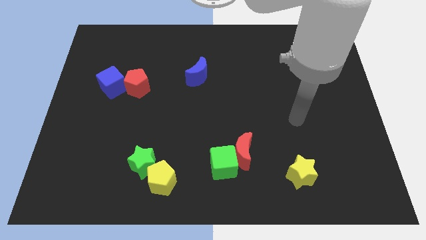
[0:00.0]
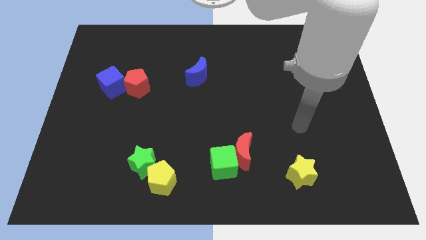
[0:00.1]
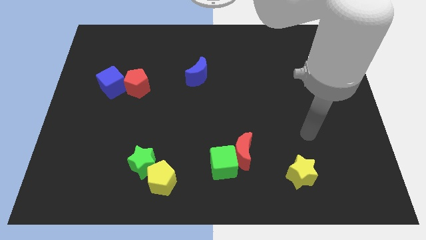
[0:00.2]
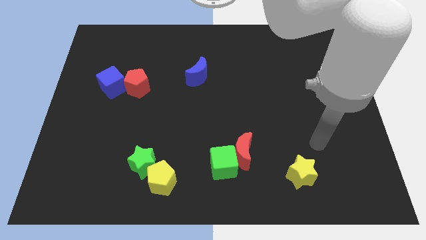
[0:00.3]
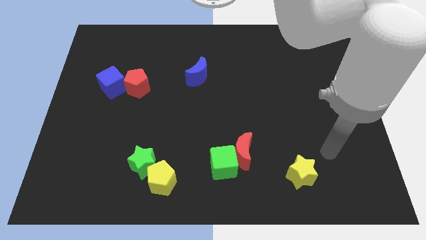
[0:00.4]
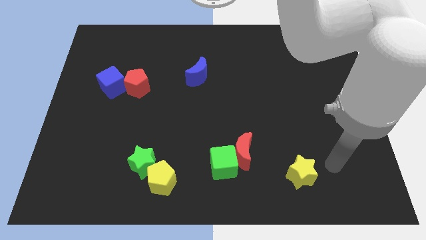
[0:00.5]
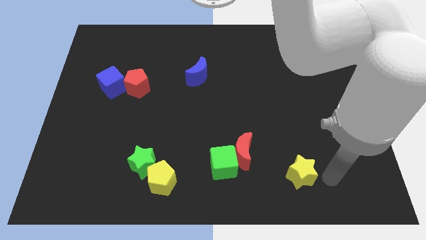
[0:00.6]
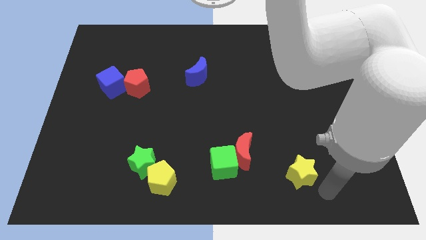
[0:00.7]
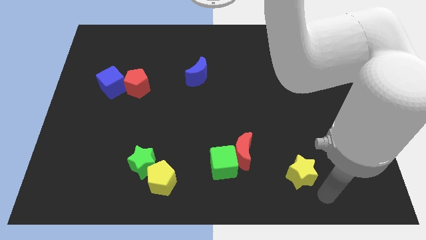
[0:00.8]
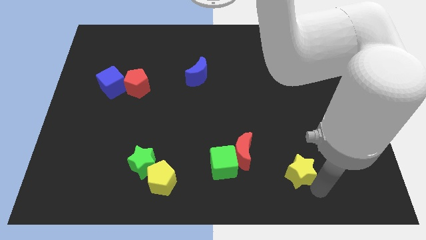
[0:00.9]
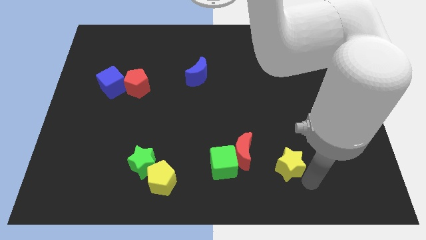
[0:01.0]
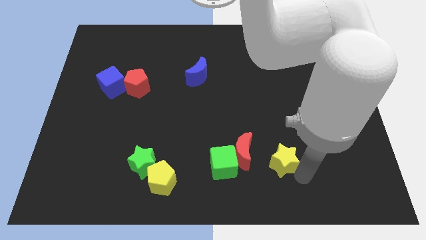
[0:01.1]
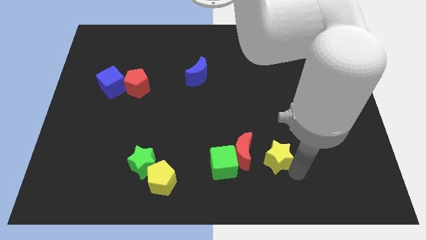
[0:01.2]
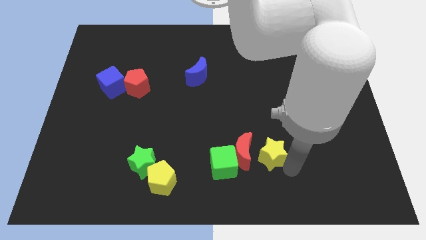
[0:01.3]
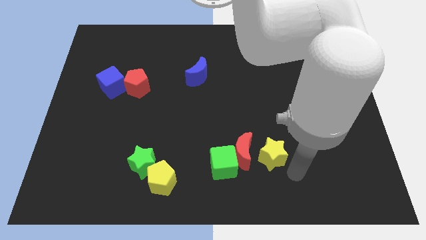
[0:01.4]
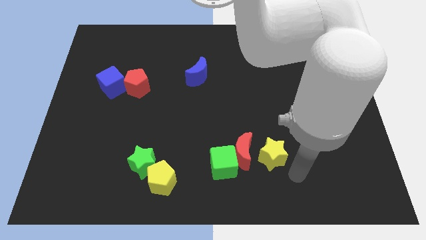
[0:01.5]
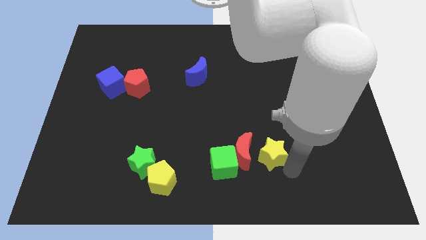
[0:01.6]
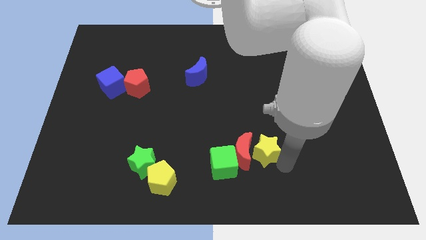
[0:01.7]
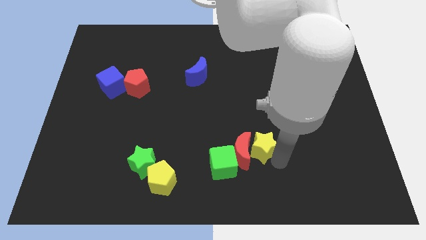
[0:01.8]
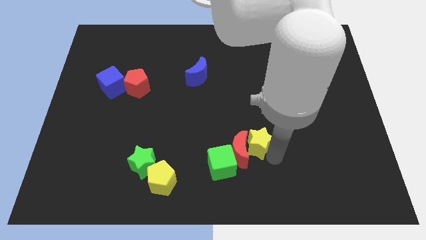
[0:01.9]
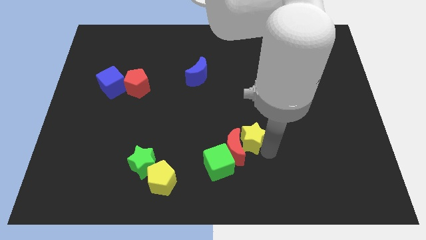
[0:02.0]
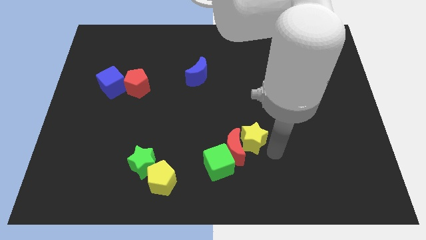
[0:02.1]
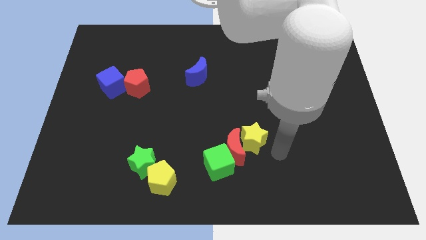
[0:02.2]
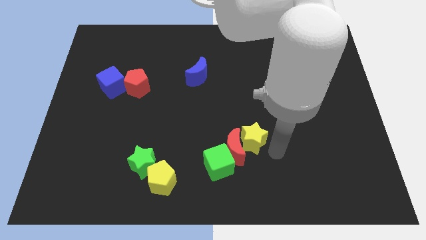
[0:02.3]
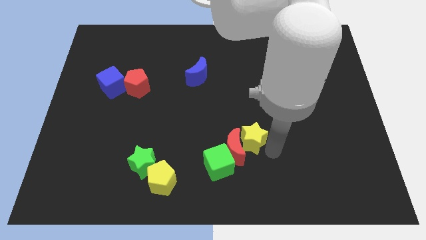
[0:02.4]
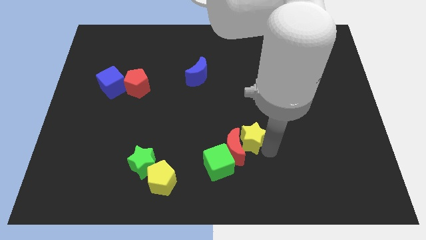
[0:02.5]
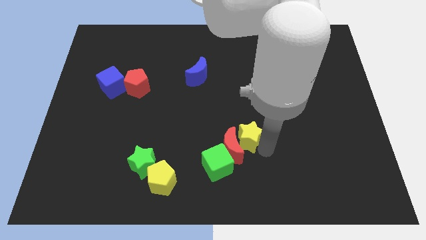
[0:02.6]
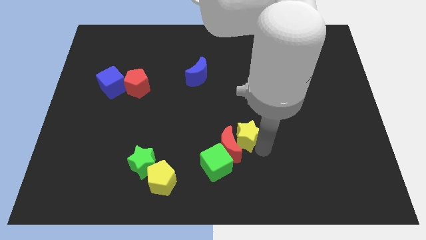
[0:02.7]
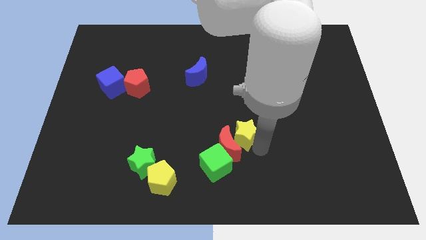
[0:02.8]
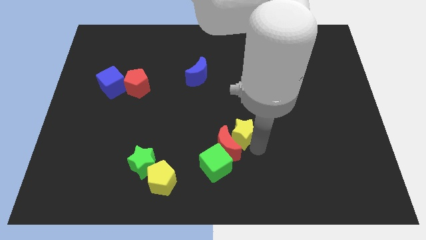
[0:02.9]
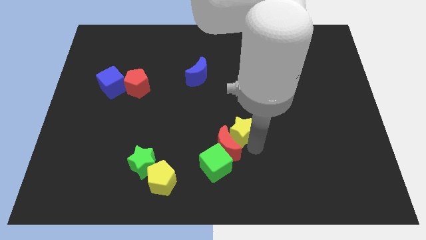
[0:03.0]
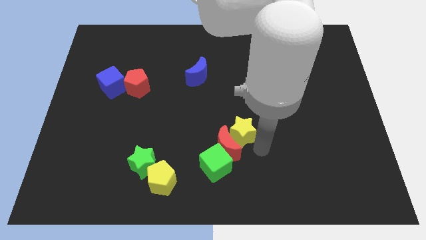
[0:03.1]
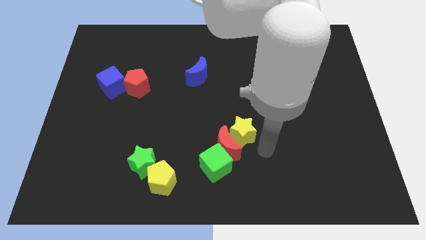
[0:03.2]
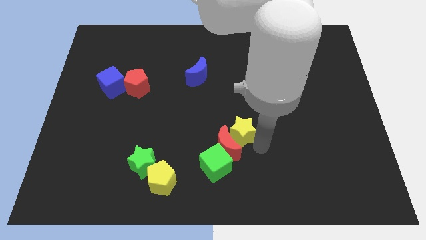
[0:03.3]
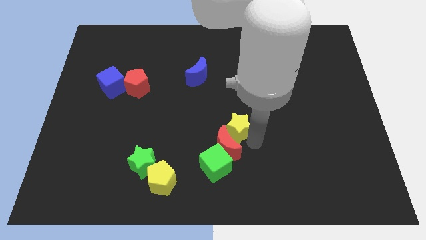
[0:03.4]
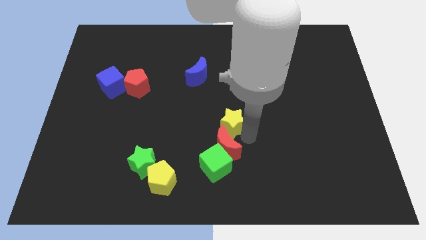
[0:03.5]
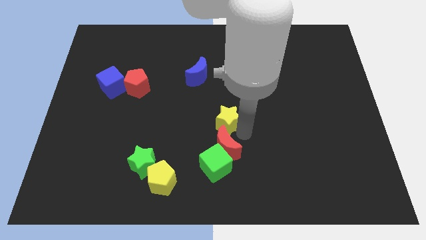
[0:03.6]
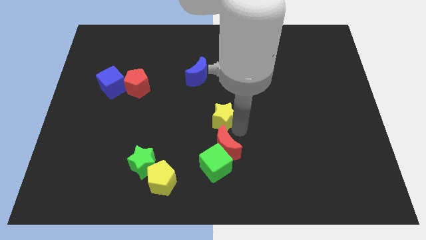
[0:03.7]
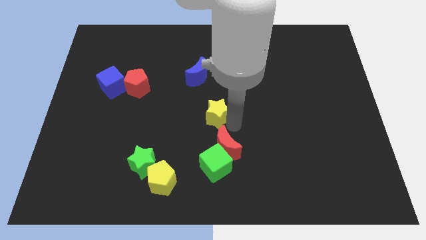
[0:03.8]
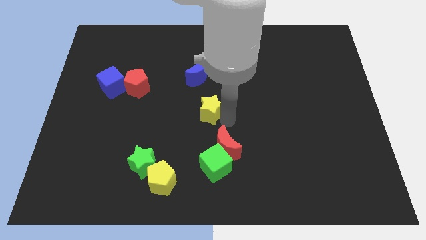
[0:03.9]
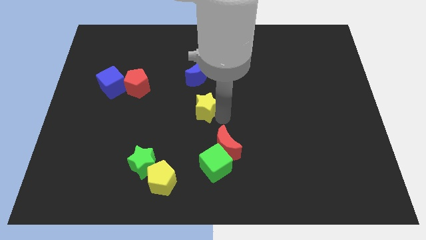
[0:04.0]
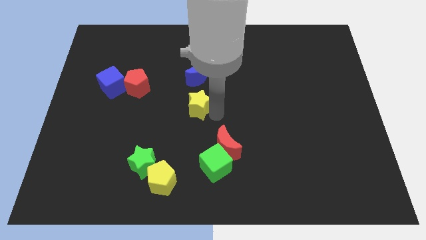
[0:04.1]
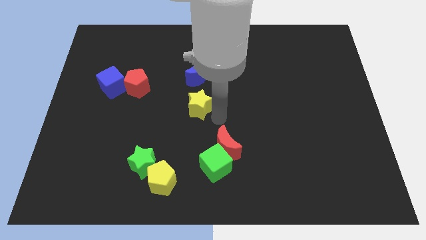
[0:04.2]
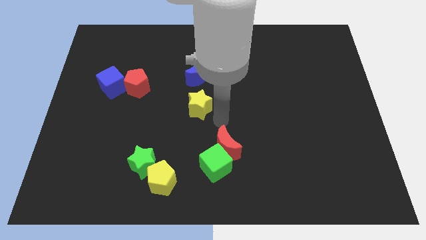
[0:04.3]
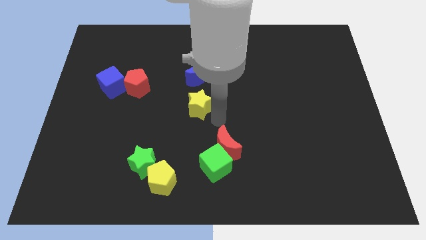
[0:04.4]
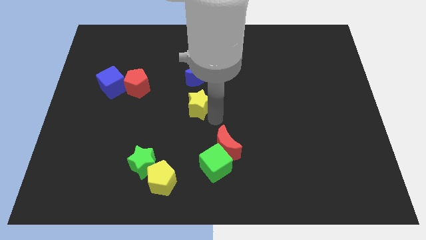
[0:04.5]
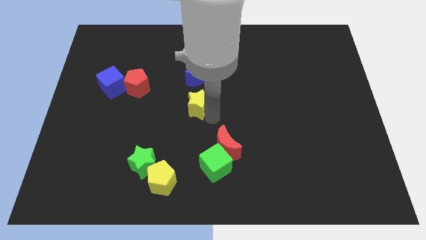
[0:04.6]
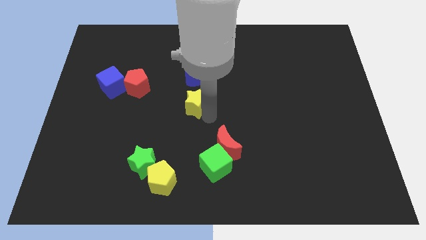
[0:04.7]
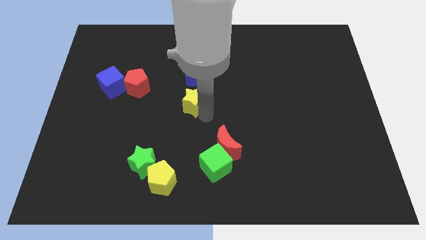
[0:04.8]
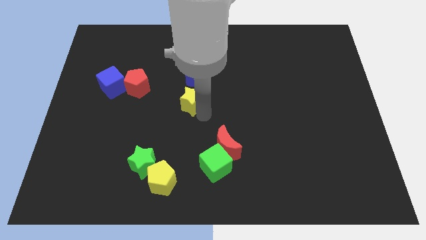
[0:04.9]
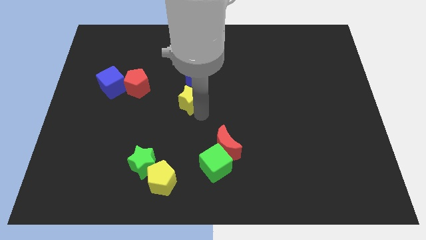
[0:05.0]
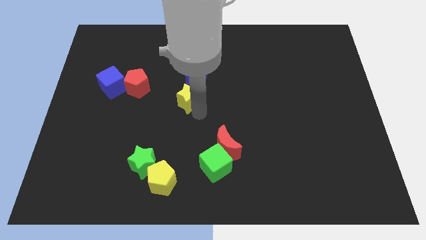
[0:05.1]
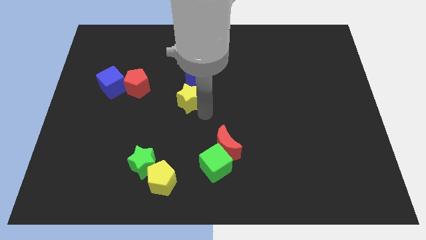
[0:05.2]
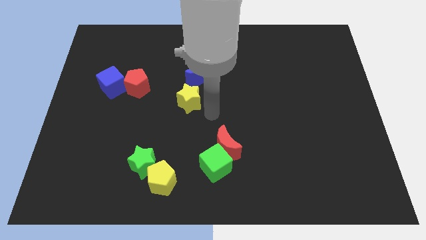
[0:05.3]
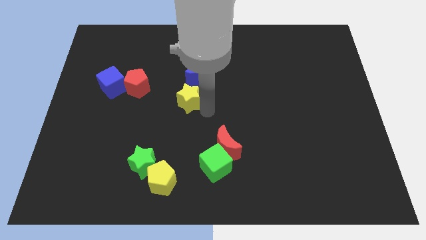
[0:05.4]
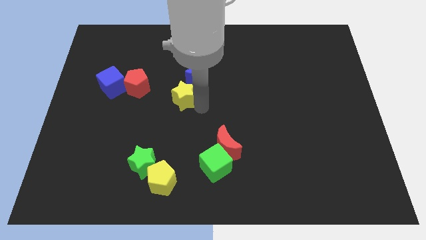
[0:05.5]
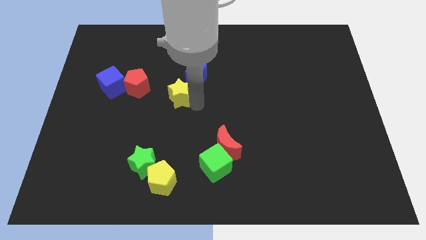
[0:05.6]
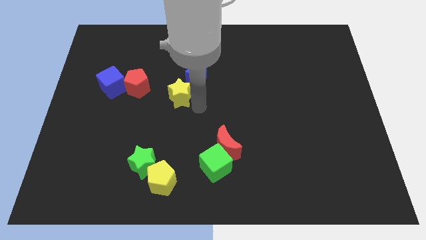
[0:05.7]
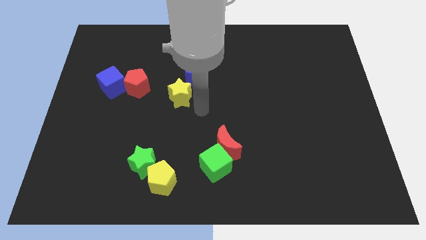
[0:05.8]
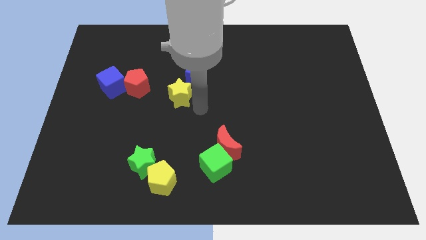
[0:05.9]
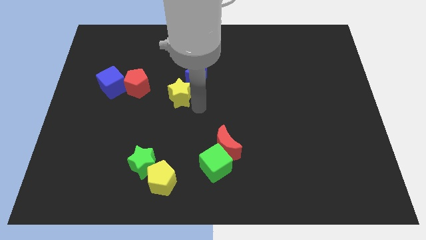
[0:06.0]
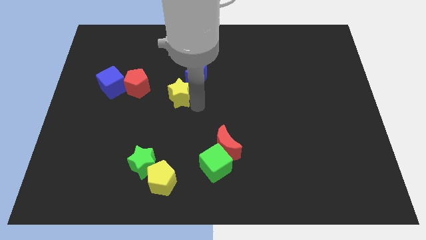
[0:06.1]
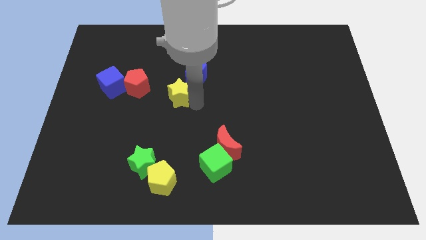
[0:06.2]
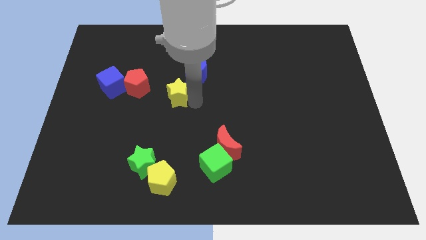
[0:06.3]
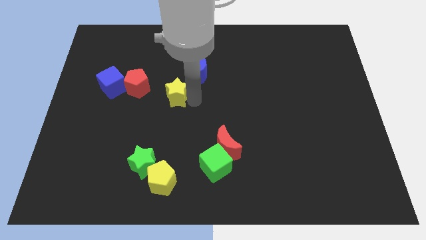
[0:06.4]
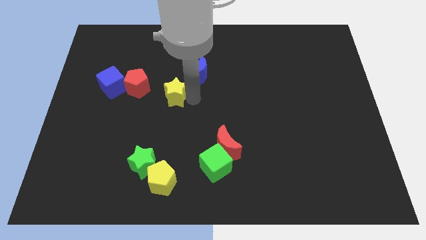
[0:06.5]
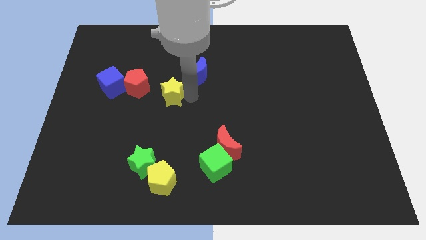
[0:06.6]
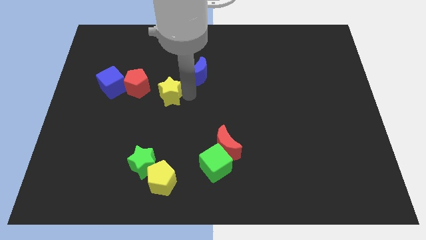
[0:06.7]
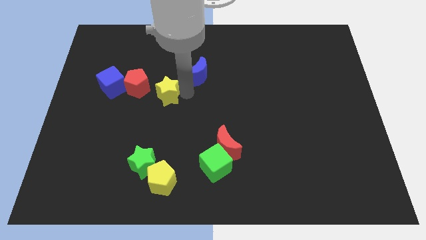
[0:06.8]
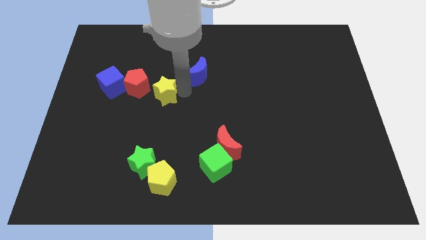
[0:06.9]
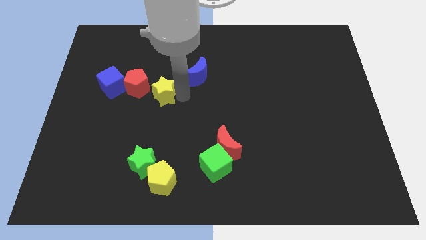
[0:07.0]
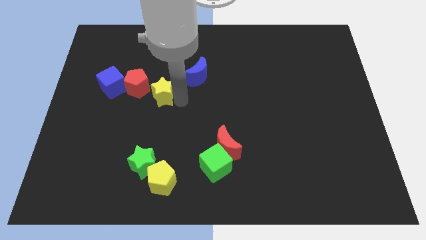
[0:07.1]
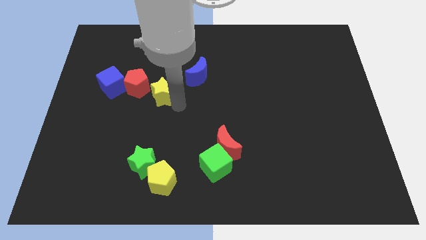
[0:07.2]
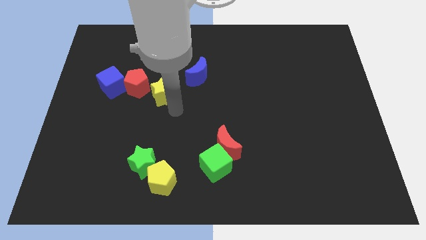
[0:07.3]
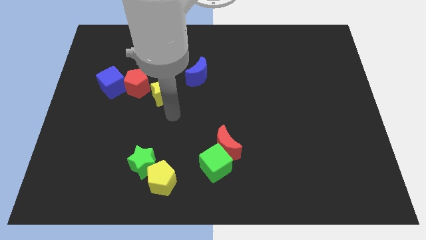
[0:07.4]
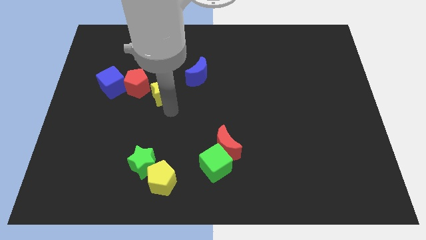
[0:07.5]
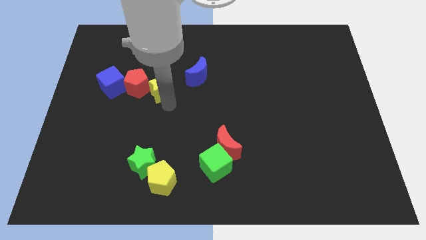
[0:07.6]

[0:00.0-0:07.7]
put the yellow star to the left side of the blue moon
